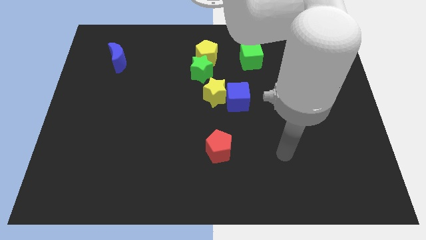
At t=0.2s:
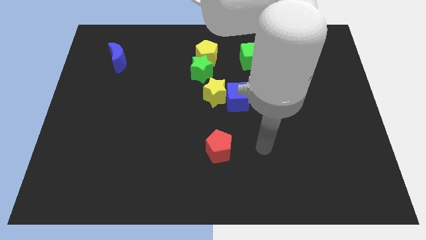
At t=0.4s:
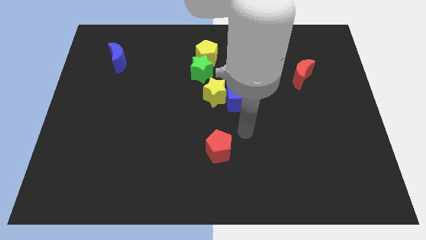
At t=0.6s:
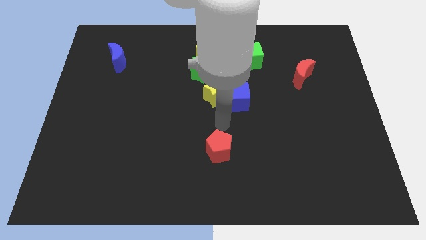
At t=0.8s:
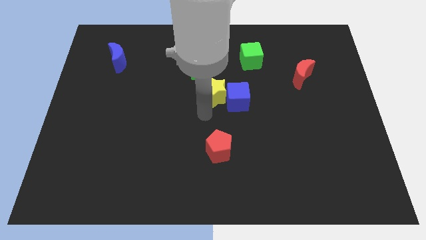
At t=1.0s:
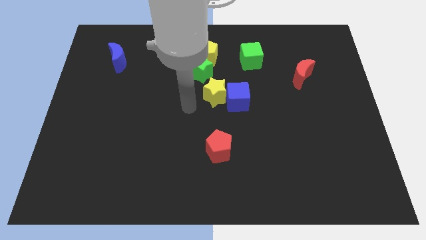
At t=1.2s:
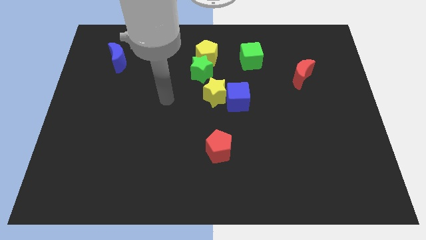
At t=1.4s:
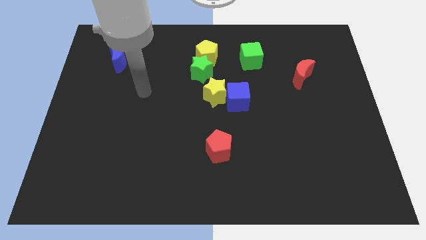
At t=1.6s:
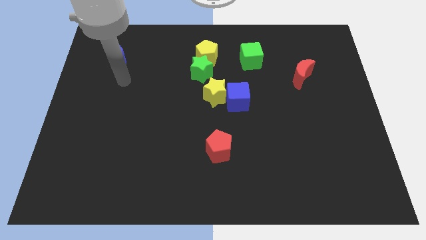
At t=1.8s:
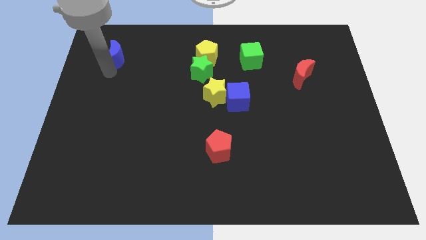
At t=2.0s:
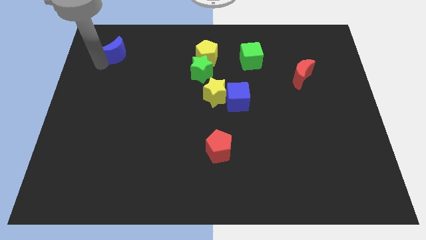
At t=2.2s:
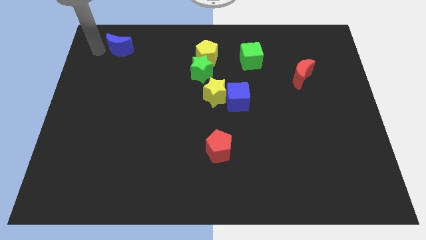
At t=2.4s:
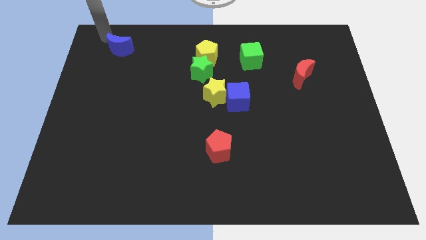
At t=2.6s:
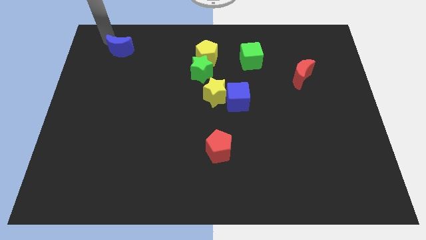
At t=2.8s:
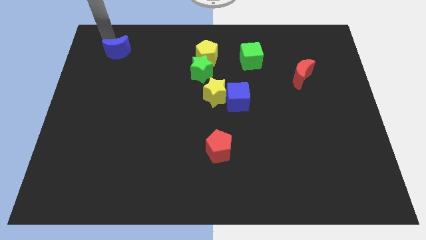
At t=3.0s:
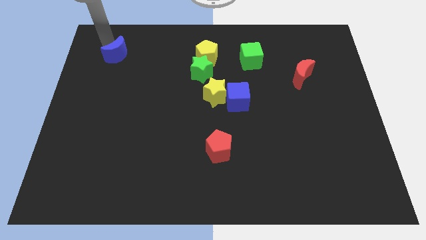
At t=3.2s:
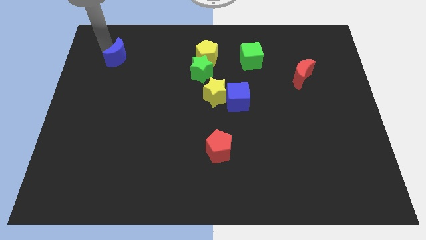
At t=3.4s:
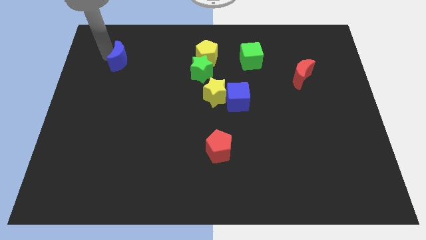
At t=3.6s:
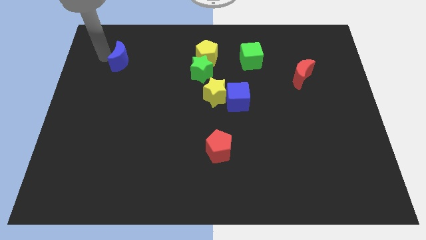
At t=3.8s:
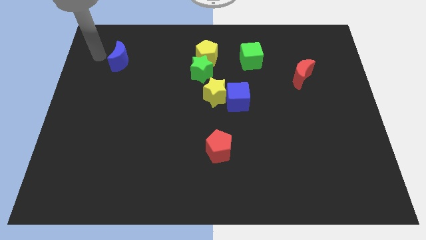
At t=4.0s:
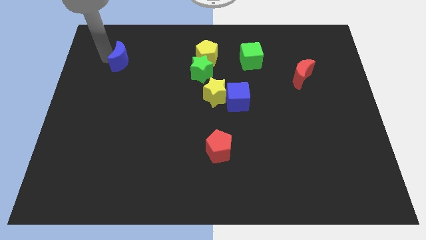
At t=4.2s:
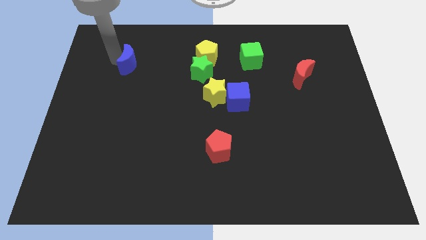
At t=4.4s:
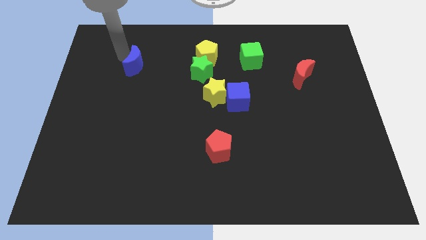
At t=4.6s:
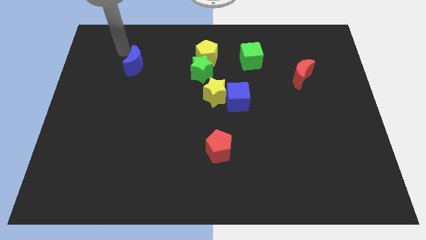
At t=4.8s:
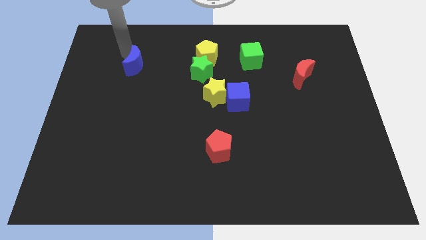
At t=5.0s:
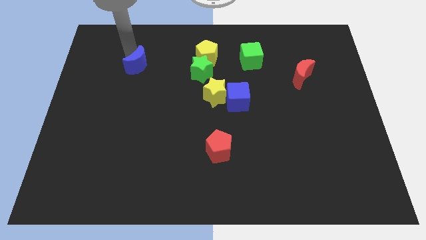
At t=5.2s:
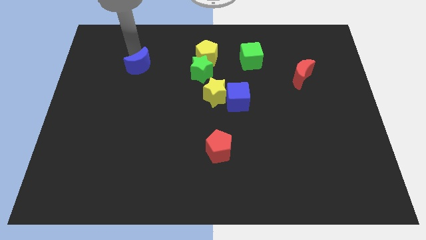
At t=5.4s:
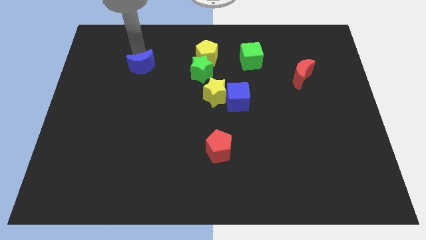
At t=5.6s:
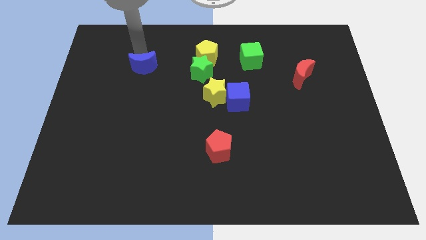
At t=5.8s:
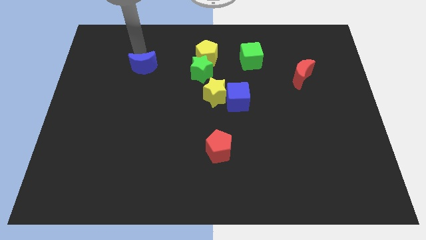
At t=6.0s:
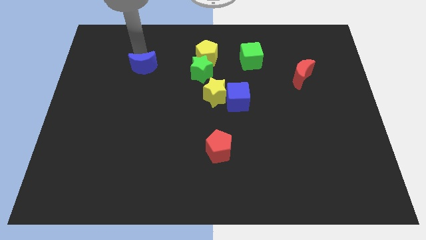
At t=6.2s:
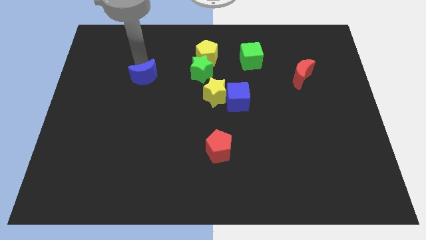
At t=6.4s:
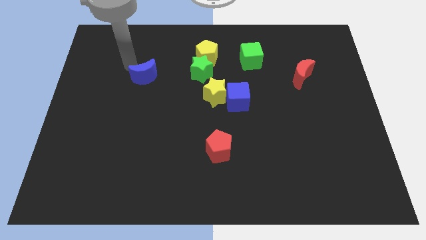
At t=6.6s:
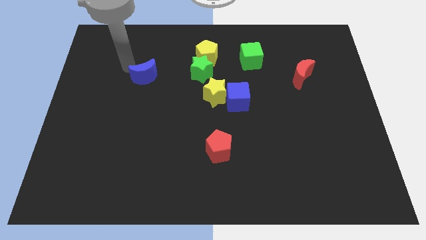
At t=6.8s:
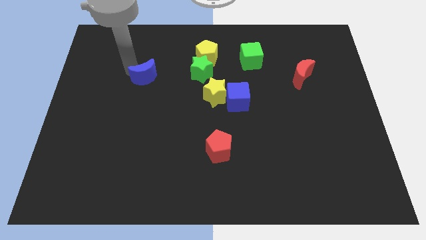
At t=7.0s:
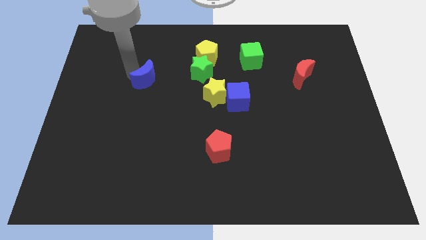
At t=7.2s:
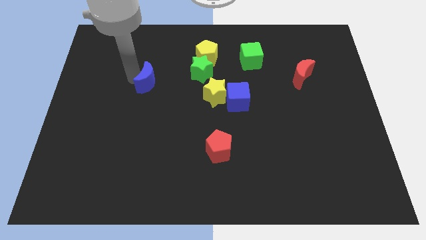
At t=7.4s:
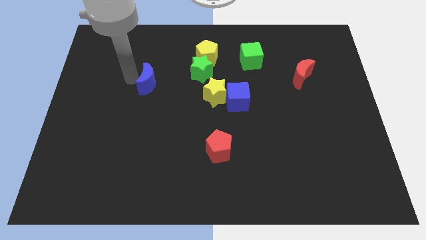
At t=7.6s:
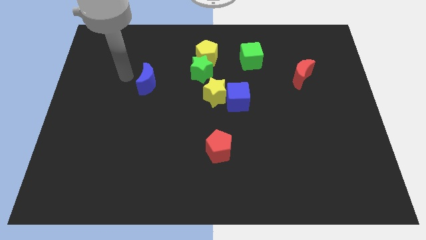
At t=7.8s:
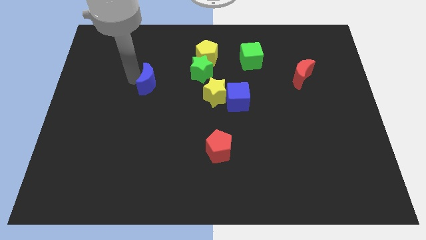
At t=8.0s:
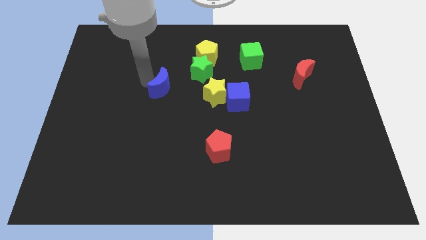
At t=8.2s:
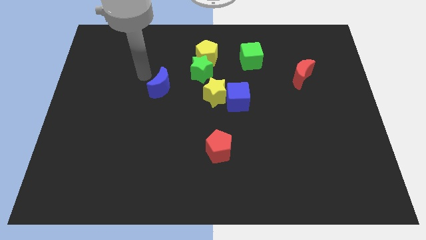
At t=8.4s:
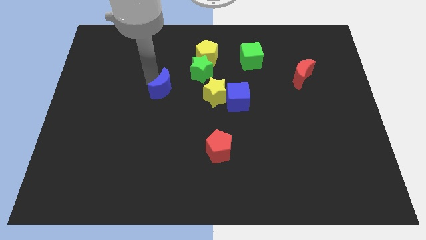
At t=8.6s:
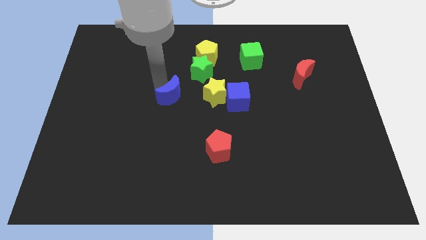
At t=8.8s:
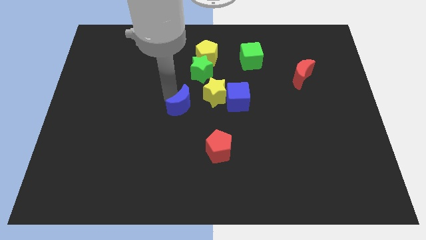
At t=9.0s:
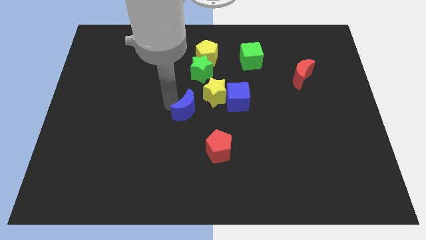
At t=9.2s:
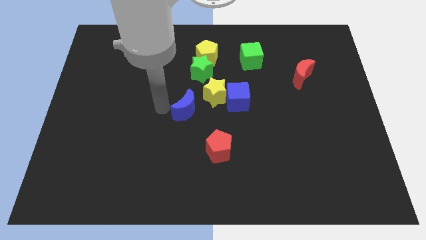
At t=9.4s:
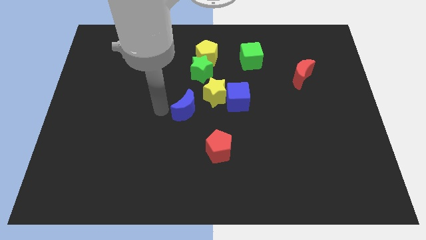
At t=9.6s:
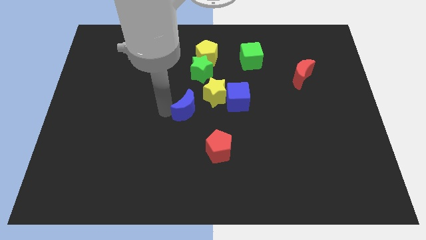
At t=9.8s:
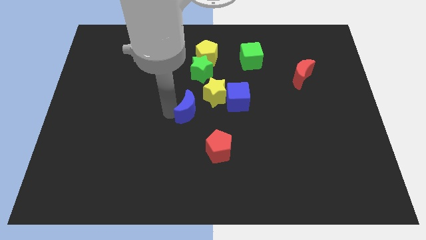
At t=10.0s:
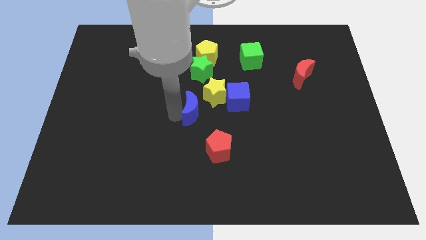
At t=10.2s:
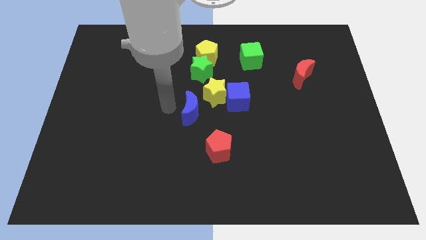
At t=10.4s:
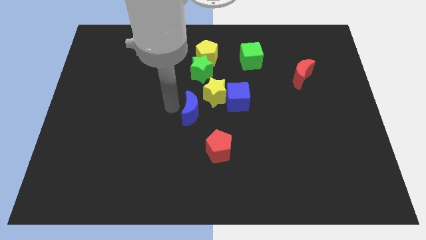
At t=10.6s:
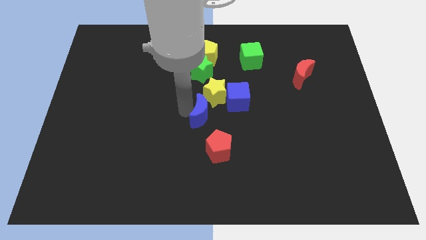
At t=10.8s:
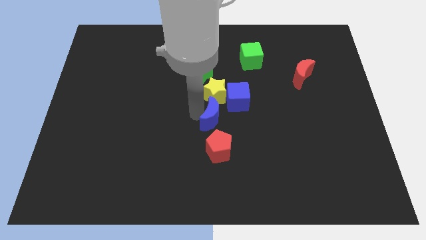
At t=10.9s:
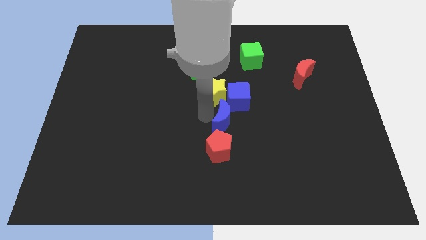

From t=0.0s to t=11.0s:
move the blue moon to the top right of the red pentagon

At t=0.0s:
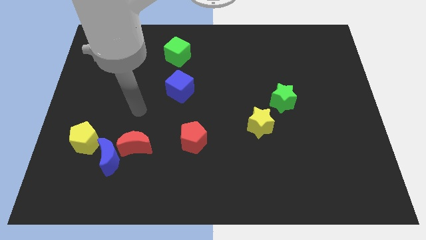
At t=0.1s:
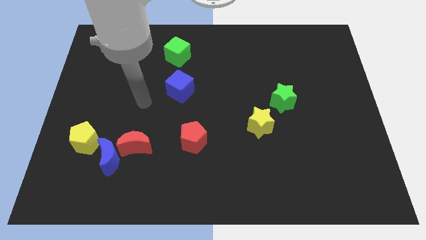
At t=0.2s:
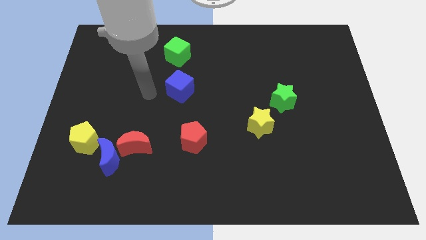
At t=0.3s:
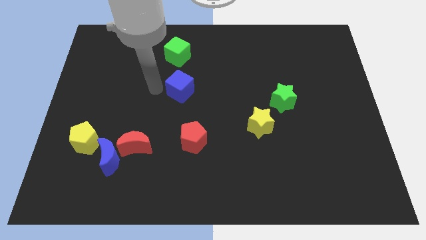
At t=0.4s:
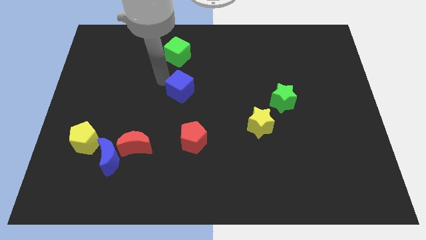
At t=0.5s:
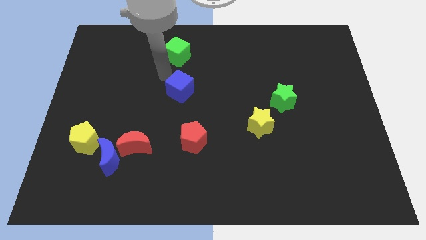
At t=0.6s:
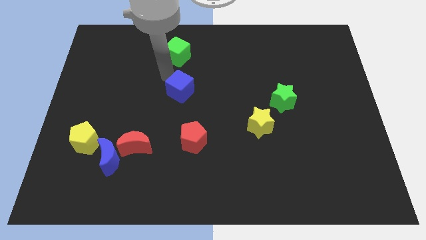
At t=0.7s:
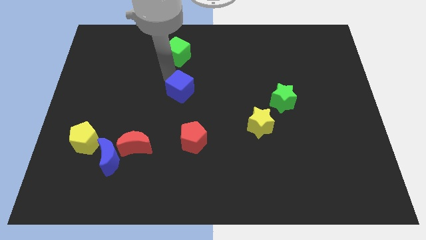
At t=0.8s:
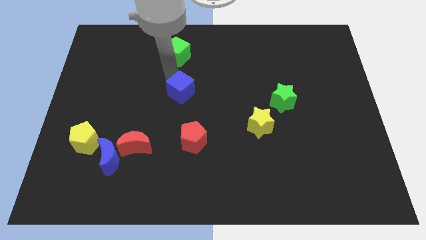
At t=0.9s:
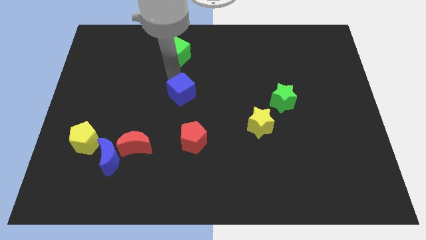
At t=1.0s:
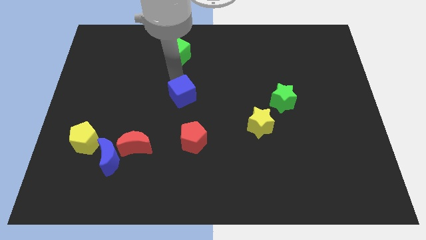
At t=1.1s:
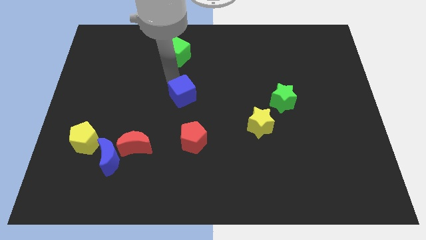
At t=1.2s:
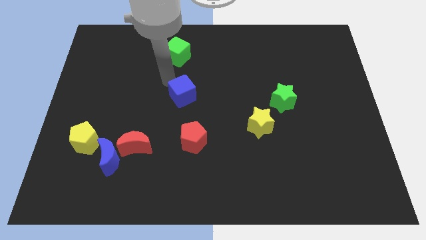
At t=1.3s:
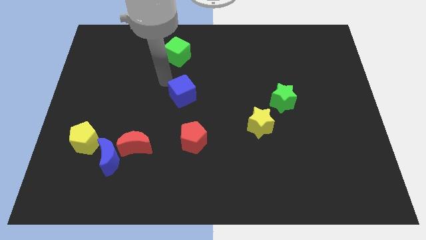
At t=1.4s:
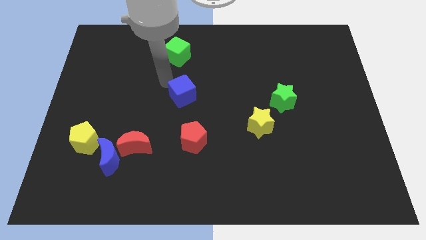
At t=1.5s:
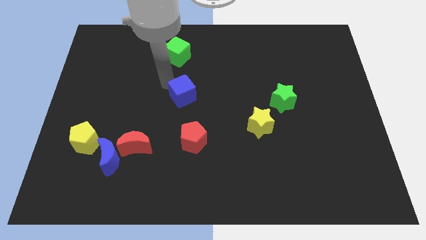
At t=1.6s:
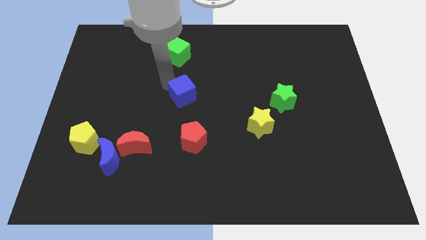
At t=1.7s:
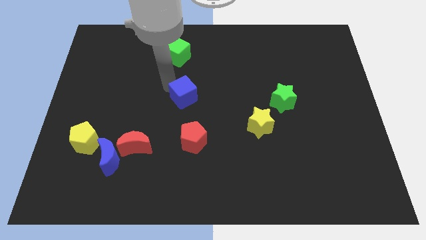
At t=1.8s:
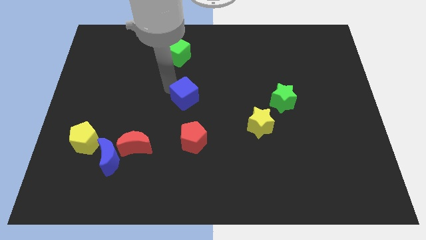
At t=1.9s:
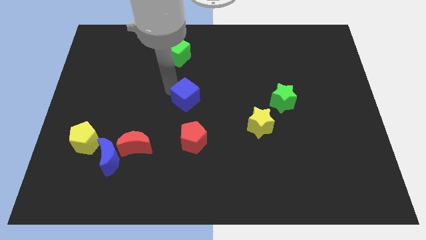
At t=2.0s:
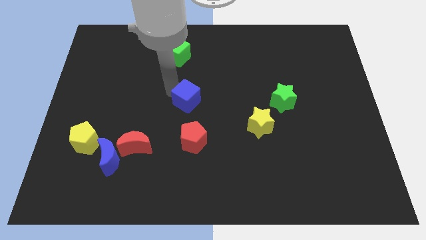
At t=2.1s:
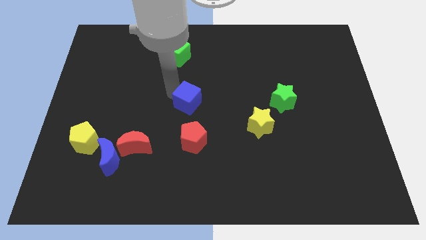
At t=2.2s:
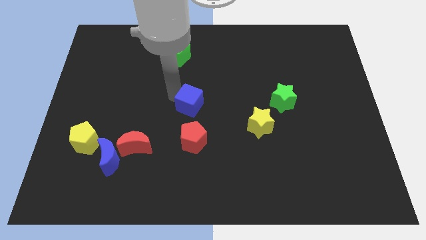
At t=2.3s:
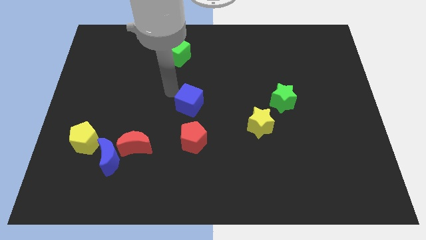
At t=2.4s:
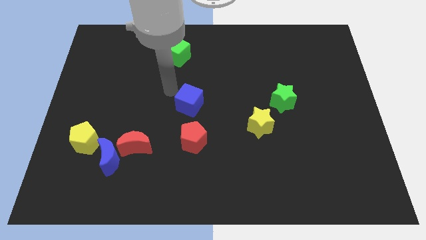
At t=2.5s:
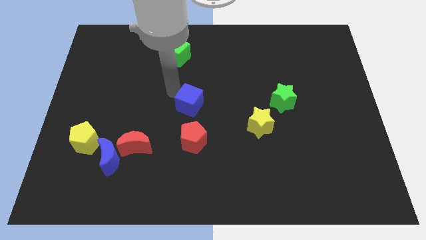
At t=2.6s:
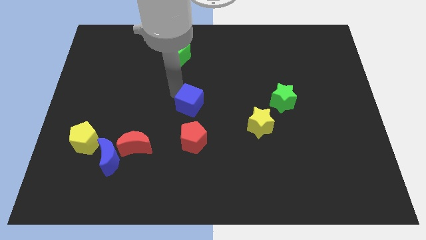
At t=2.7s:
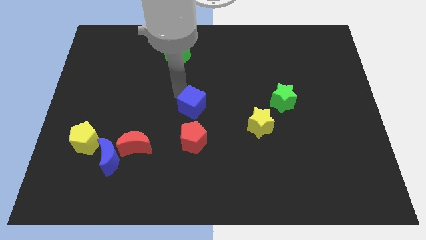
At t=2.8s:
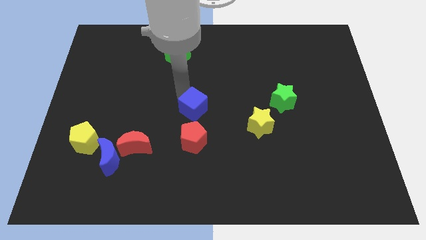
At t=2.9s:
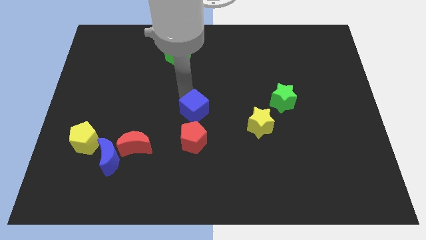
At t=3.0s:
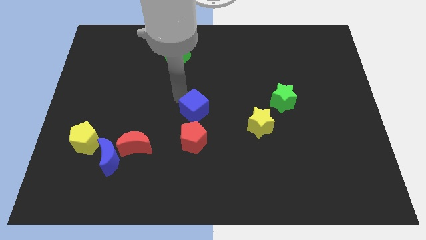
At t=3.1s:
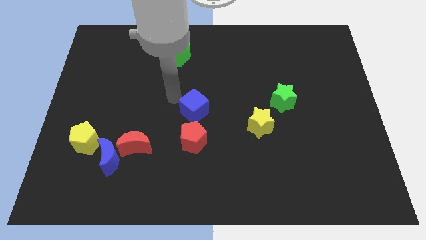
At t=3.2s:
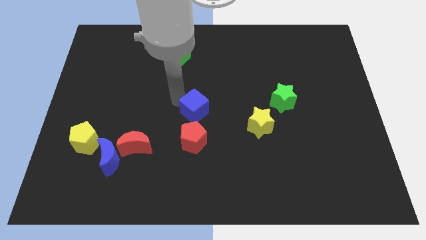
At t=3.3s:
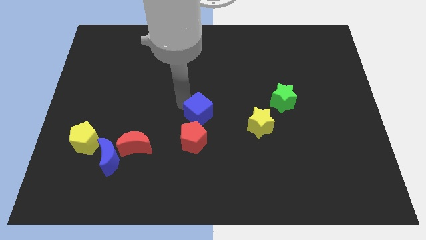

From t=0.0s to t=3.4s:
slide the blue cube to the top right of the red pentagon
